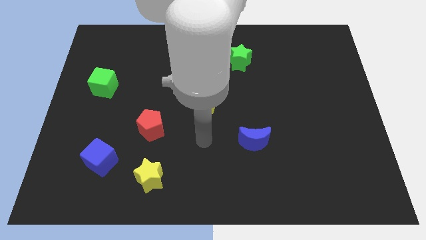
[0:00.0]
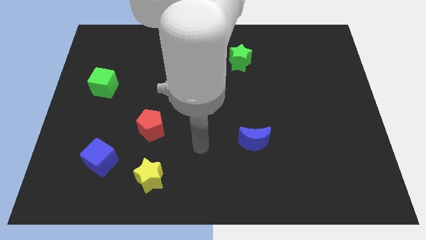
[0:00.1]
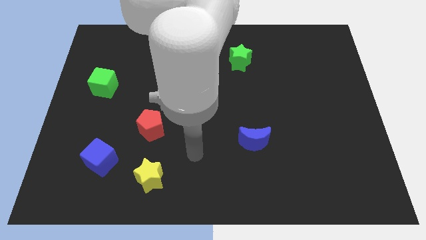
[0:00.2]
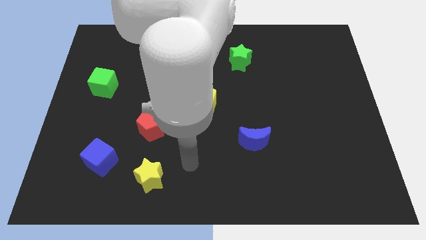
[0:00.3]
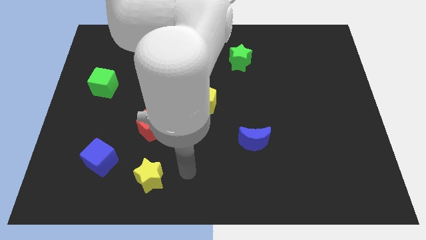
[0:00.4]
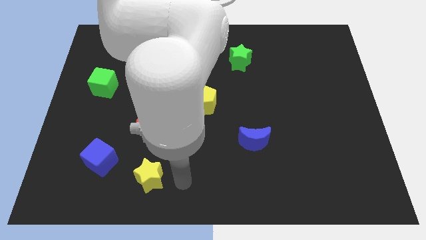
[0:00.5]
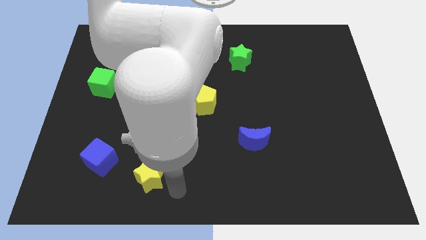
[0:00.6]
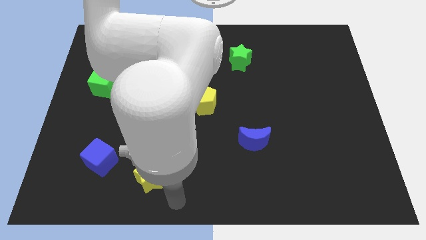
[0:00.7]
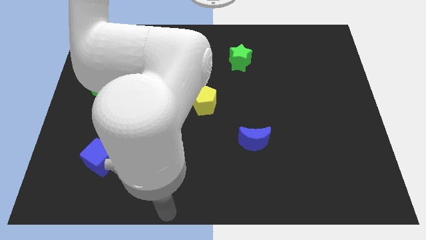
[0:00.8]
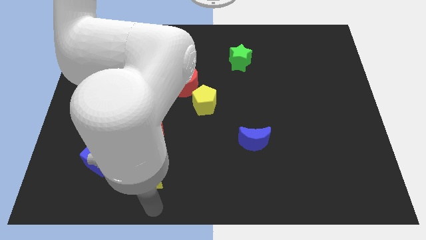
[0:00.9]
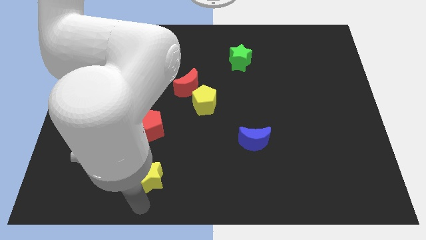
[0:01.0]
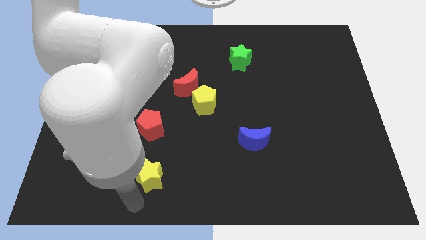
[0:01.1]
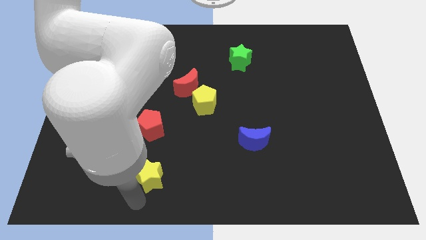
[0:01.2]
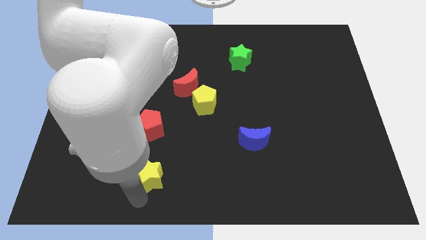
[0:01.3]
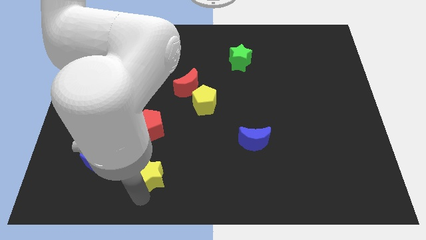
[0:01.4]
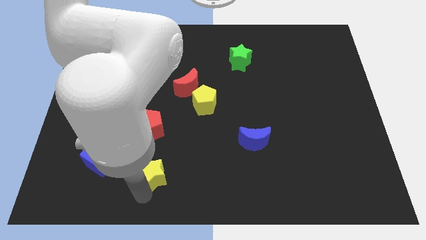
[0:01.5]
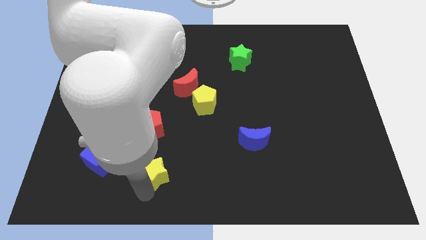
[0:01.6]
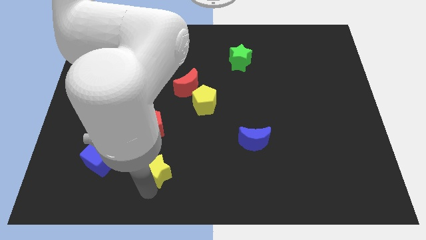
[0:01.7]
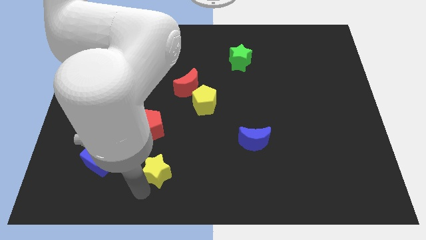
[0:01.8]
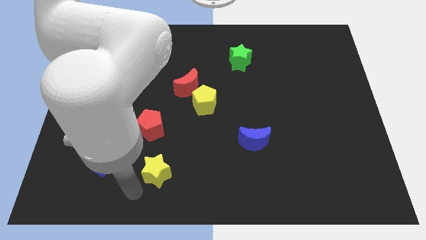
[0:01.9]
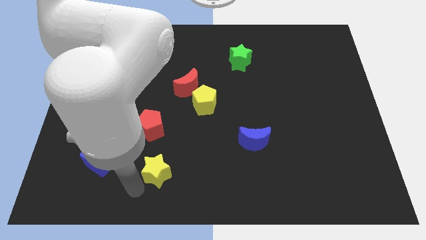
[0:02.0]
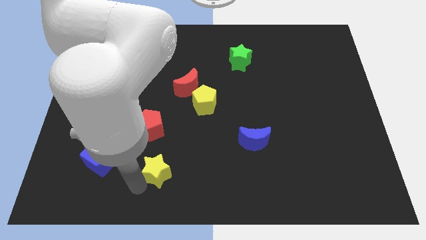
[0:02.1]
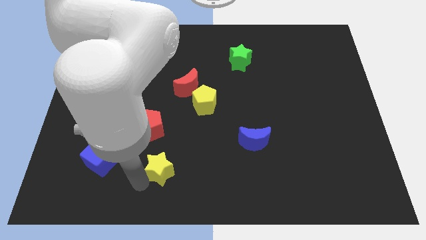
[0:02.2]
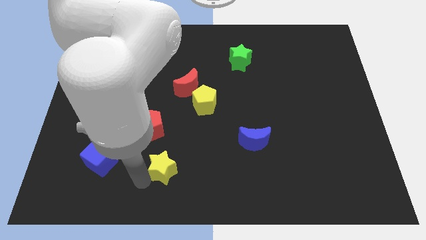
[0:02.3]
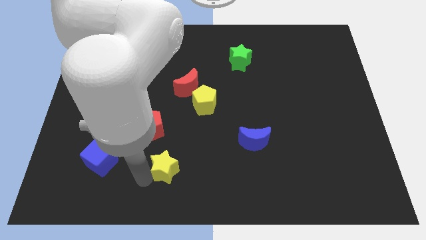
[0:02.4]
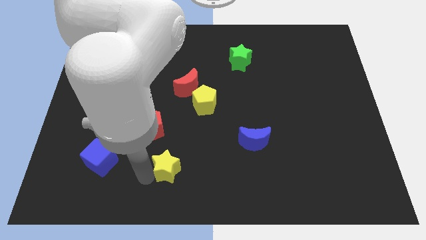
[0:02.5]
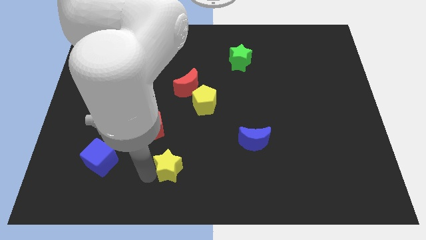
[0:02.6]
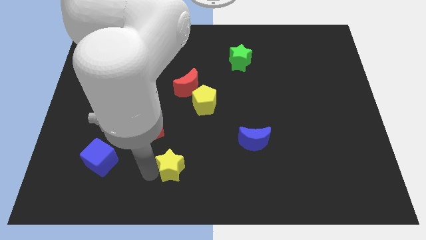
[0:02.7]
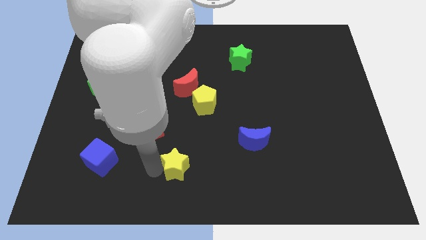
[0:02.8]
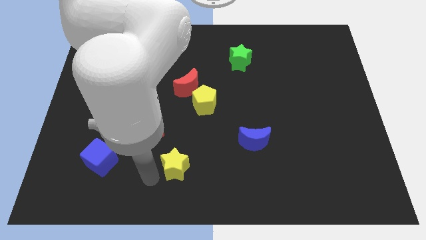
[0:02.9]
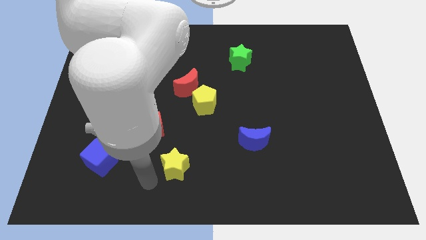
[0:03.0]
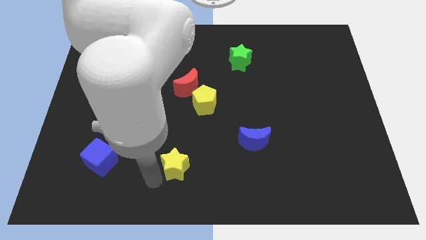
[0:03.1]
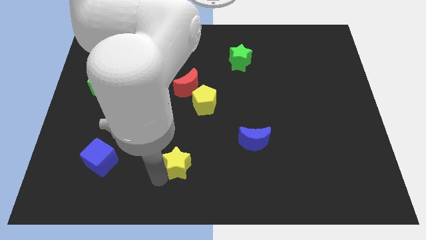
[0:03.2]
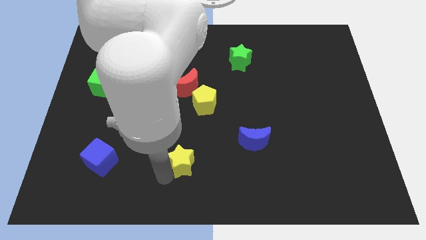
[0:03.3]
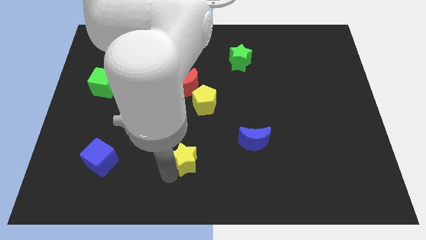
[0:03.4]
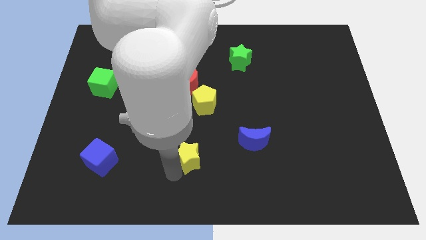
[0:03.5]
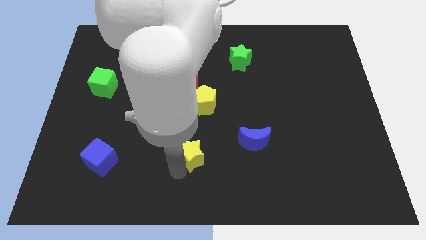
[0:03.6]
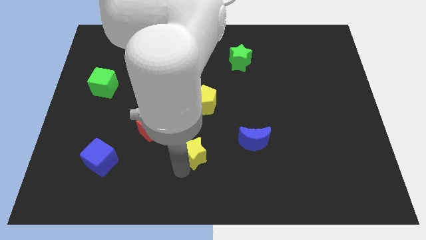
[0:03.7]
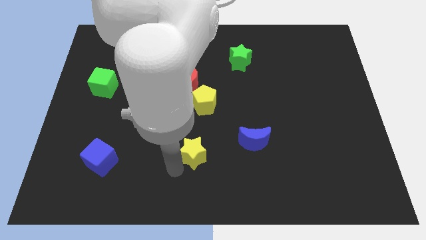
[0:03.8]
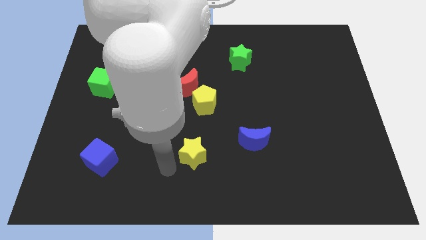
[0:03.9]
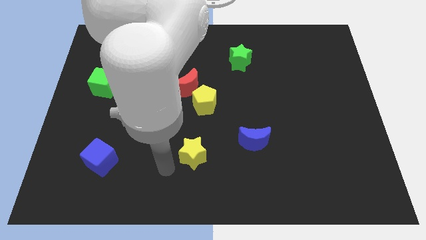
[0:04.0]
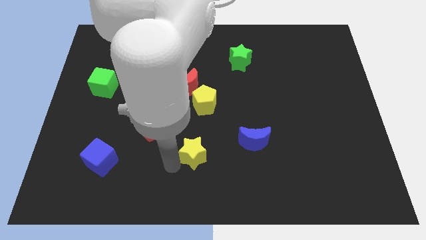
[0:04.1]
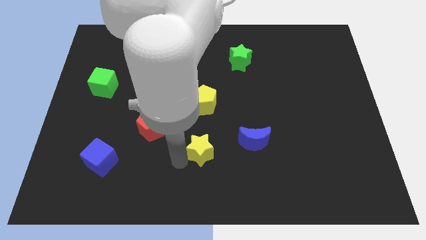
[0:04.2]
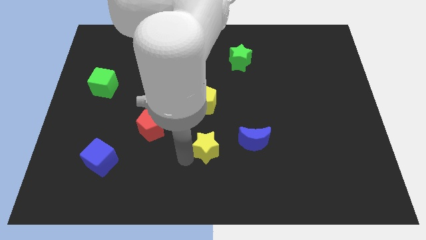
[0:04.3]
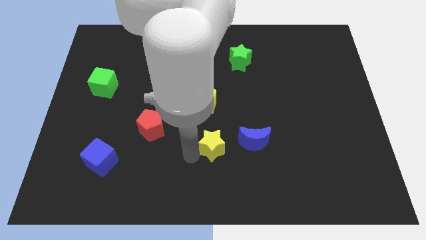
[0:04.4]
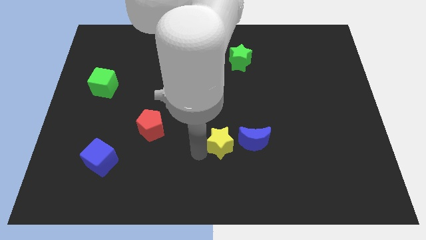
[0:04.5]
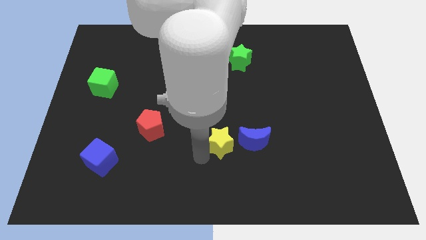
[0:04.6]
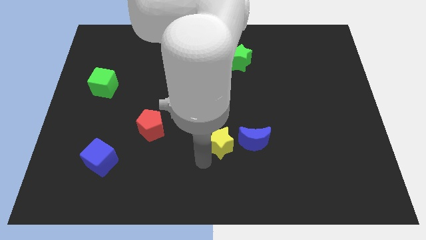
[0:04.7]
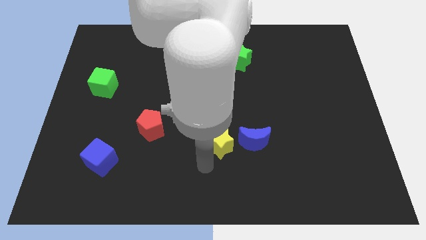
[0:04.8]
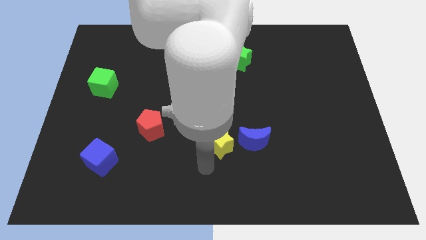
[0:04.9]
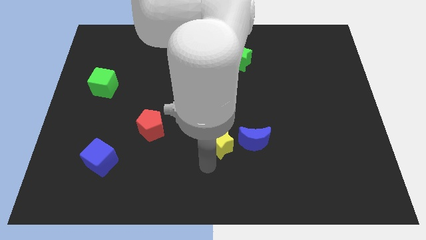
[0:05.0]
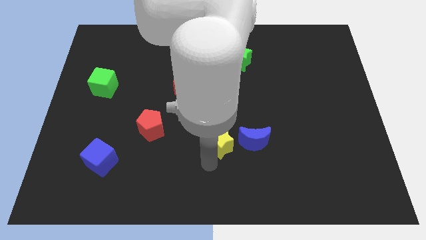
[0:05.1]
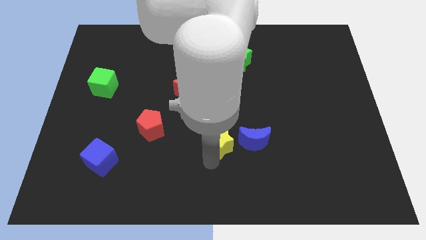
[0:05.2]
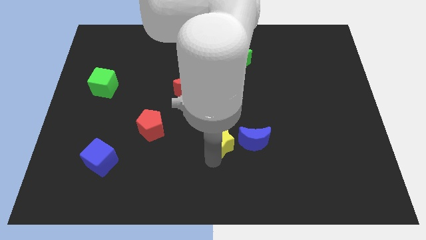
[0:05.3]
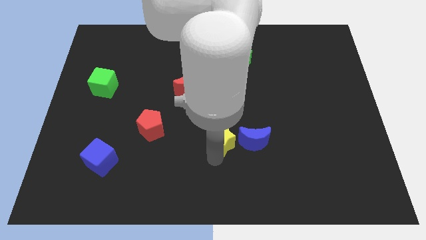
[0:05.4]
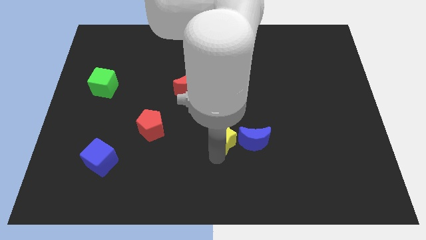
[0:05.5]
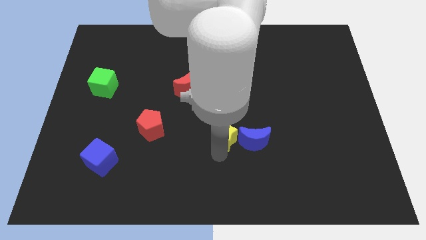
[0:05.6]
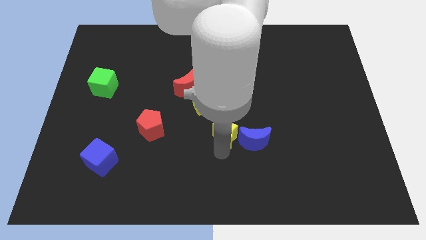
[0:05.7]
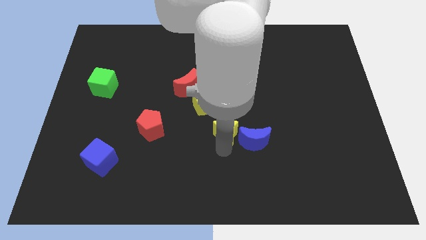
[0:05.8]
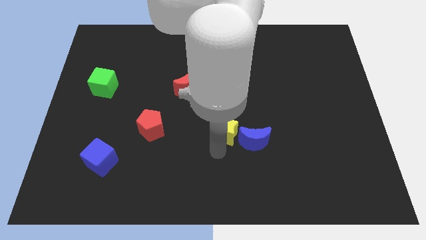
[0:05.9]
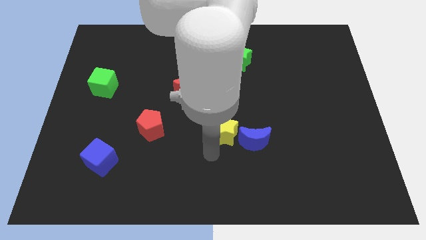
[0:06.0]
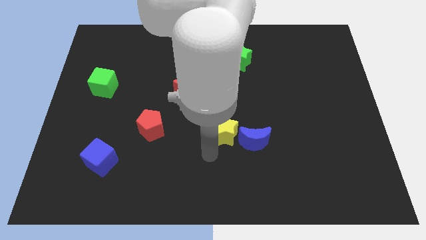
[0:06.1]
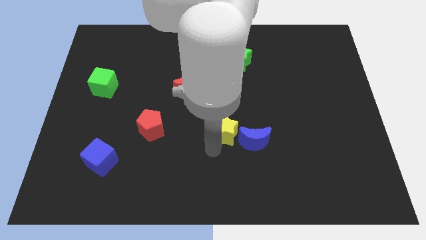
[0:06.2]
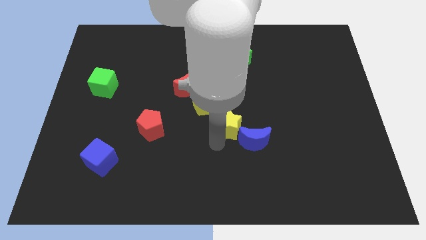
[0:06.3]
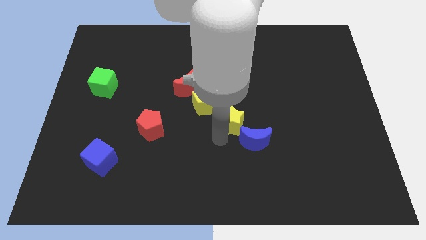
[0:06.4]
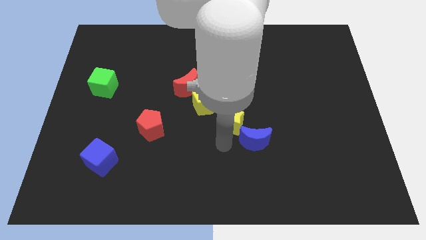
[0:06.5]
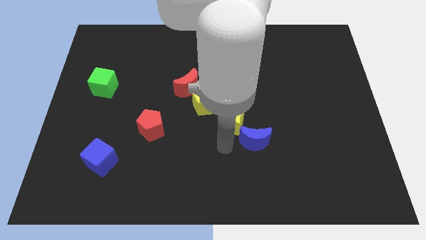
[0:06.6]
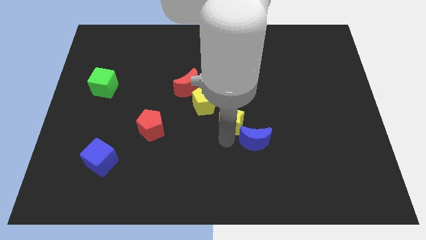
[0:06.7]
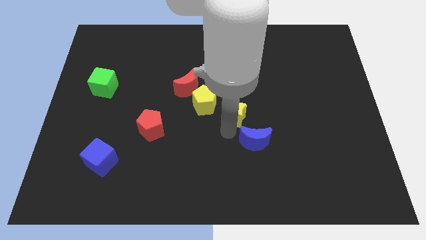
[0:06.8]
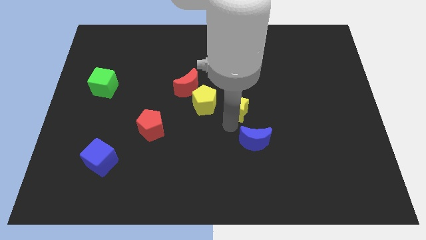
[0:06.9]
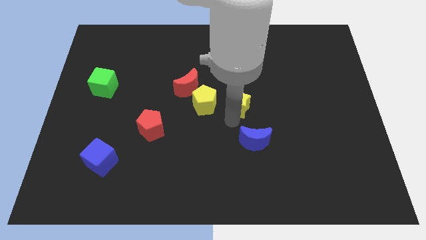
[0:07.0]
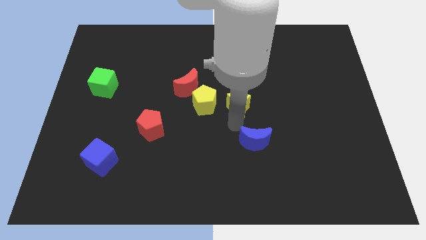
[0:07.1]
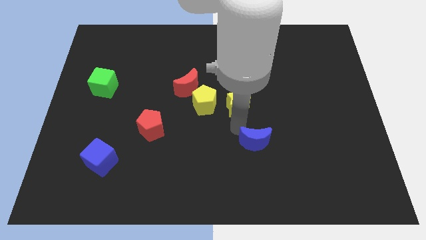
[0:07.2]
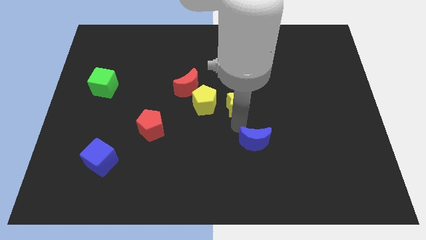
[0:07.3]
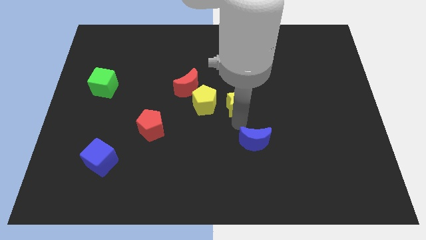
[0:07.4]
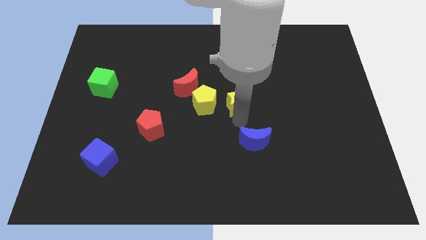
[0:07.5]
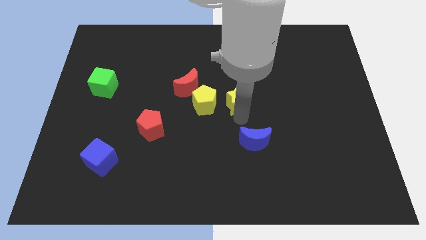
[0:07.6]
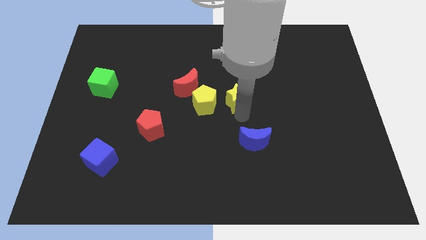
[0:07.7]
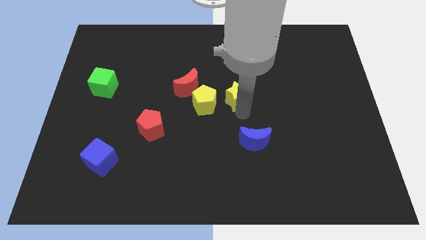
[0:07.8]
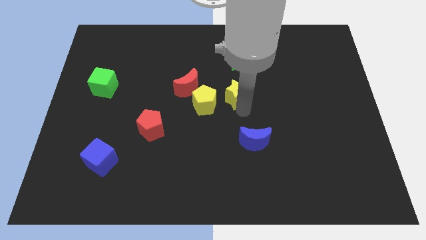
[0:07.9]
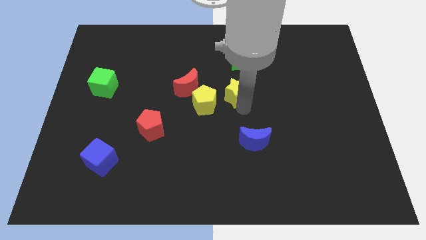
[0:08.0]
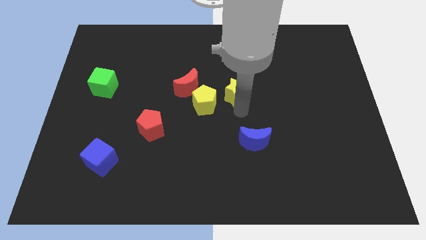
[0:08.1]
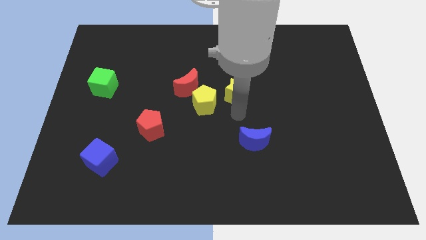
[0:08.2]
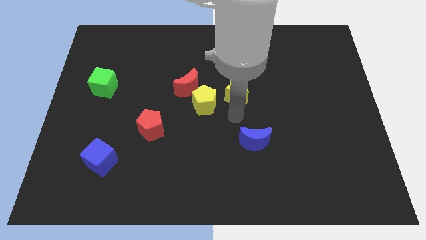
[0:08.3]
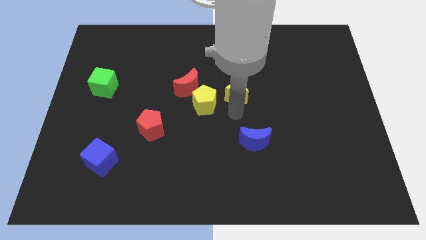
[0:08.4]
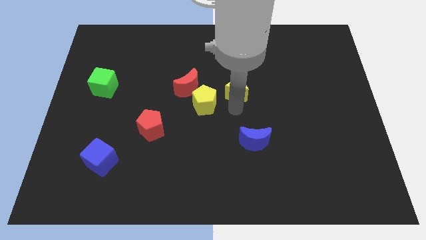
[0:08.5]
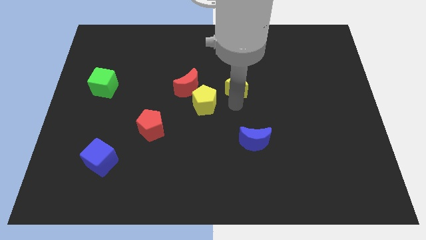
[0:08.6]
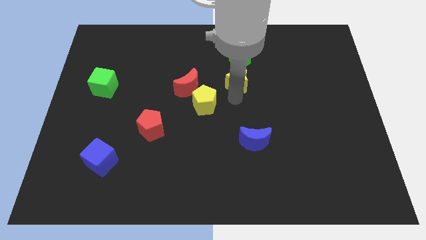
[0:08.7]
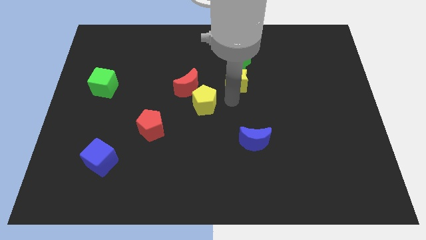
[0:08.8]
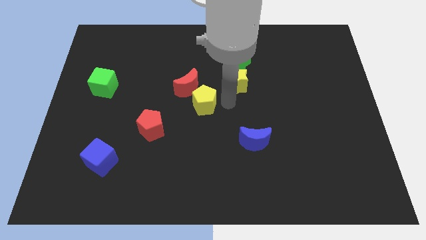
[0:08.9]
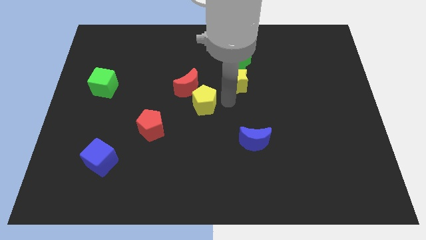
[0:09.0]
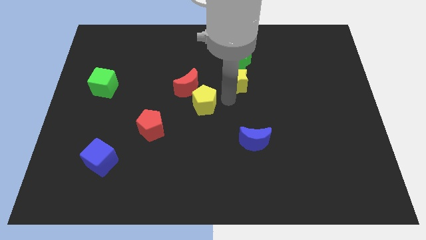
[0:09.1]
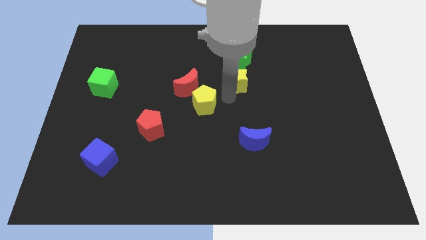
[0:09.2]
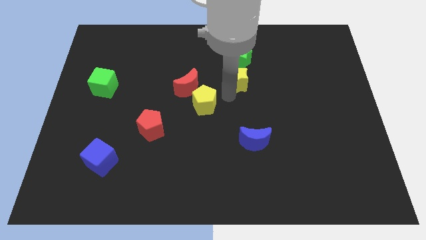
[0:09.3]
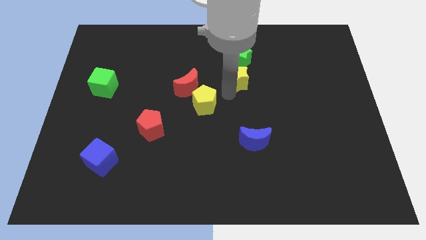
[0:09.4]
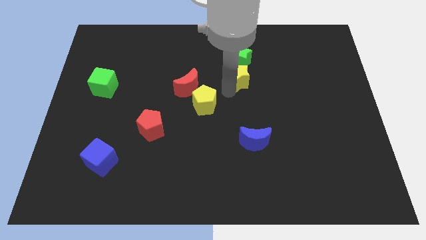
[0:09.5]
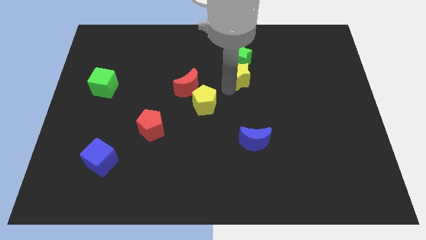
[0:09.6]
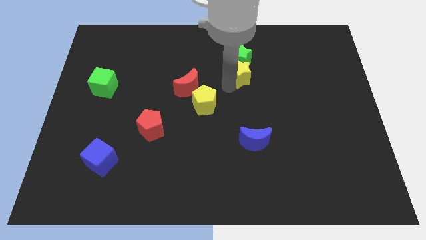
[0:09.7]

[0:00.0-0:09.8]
slide the yellow star to the green star
